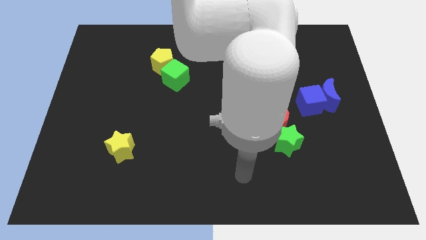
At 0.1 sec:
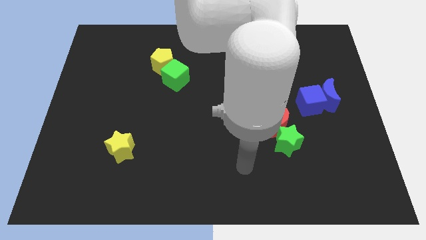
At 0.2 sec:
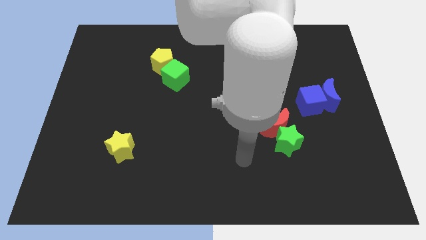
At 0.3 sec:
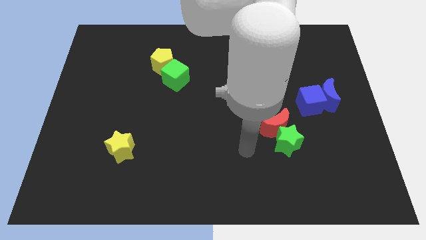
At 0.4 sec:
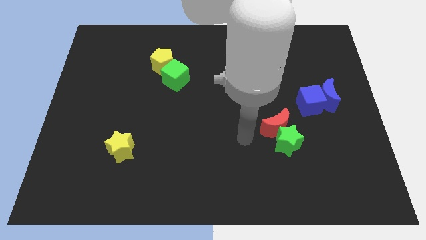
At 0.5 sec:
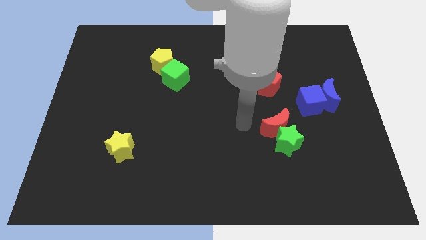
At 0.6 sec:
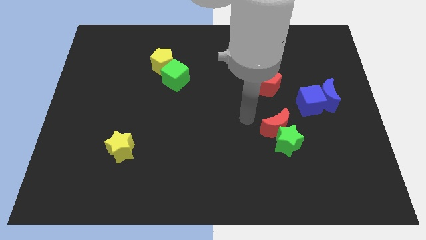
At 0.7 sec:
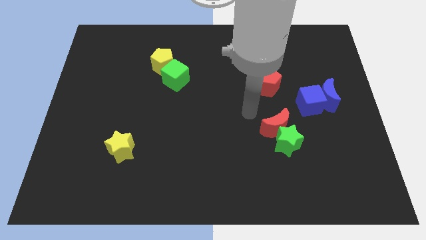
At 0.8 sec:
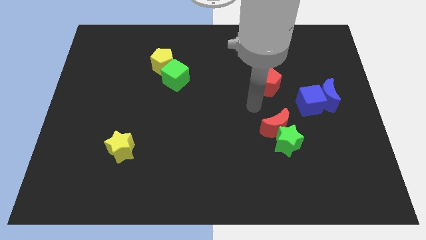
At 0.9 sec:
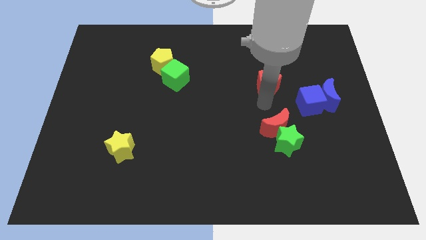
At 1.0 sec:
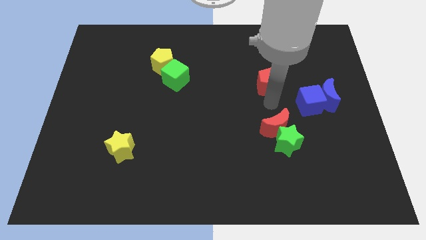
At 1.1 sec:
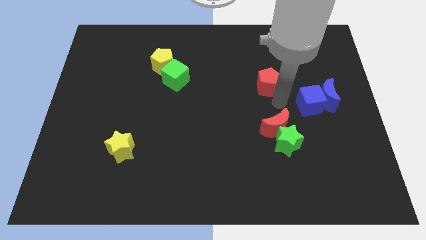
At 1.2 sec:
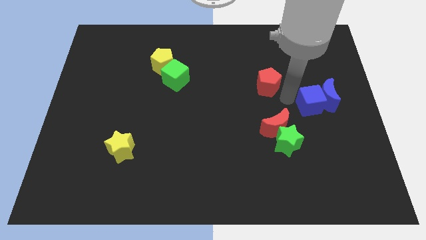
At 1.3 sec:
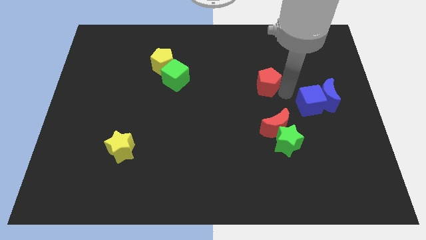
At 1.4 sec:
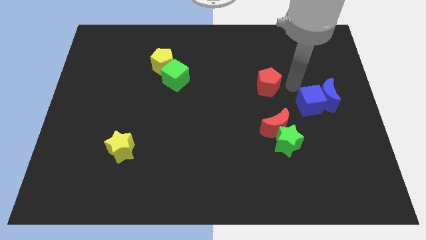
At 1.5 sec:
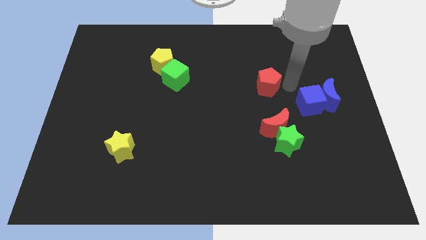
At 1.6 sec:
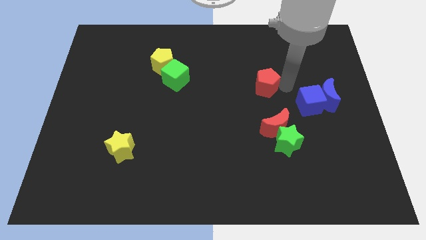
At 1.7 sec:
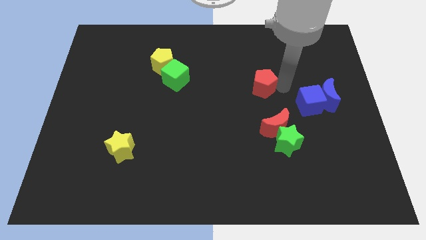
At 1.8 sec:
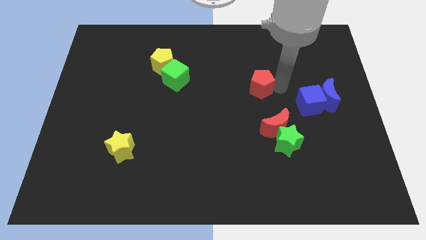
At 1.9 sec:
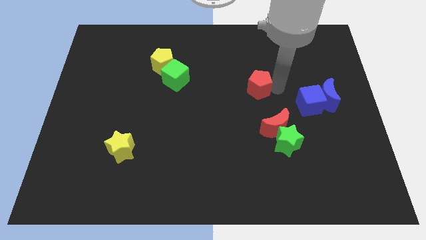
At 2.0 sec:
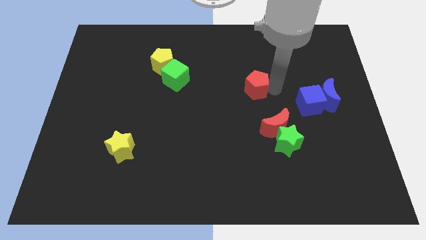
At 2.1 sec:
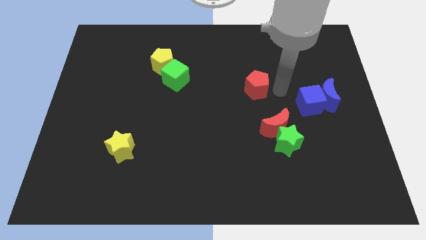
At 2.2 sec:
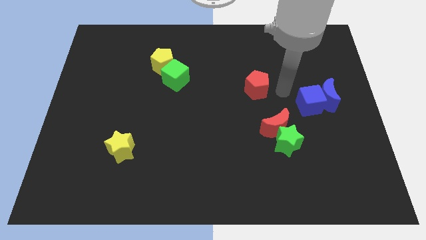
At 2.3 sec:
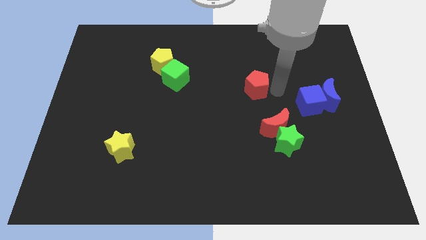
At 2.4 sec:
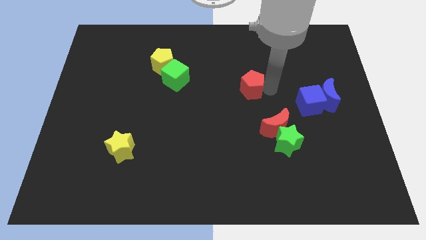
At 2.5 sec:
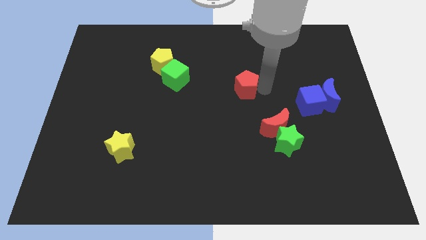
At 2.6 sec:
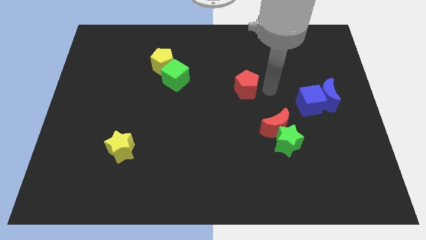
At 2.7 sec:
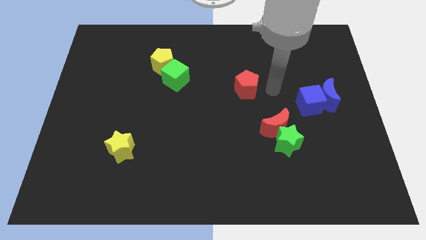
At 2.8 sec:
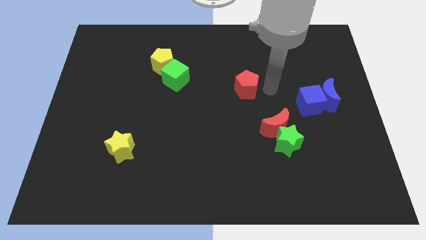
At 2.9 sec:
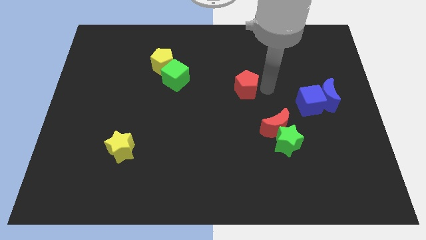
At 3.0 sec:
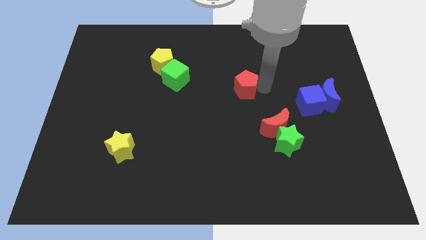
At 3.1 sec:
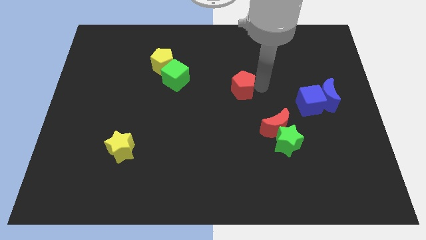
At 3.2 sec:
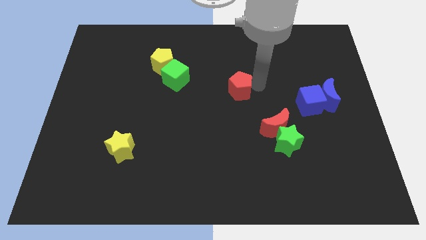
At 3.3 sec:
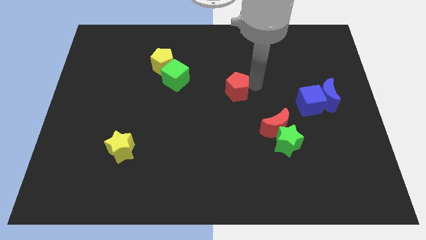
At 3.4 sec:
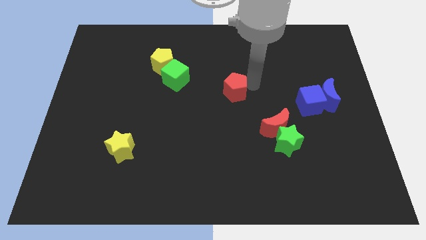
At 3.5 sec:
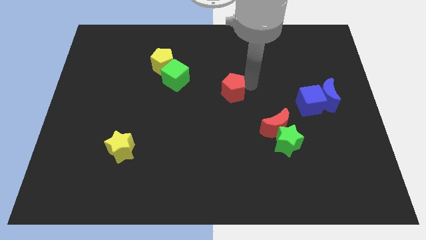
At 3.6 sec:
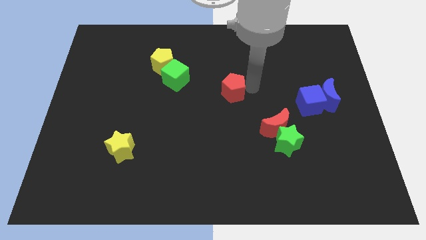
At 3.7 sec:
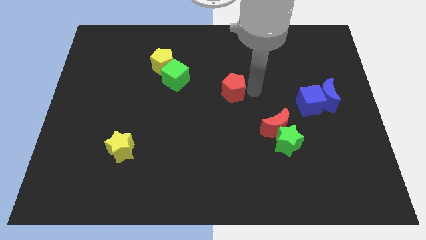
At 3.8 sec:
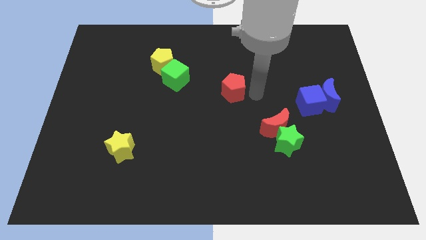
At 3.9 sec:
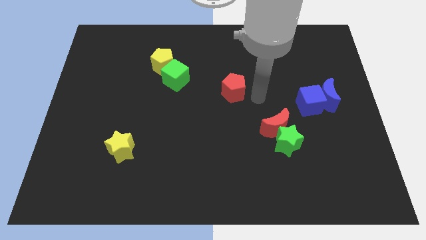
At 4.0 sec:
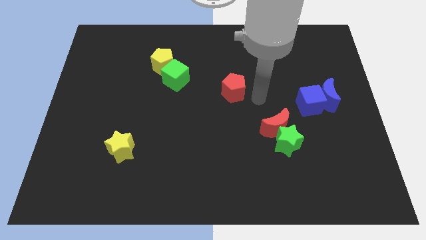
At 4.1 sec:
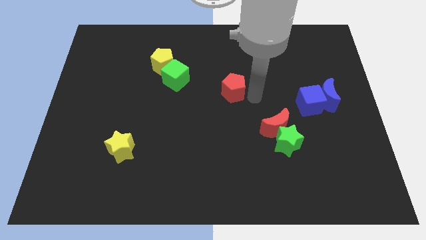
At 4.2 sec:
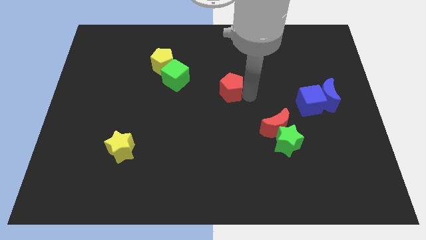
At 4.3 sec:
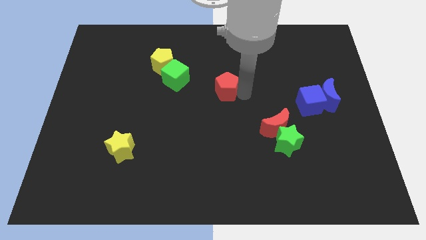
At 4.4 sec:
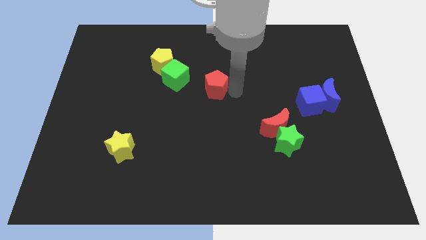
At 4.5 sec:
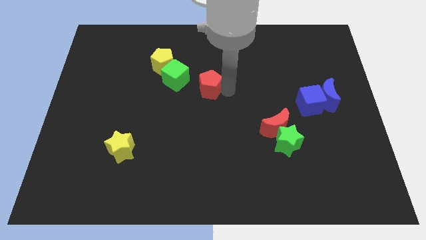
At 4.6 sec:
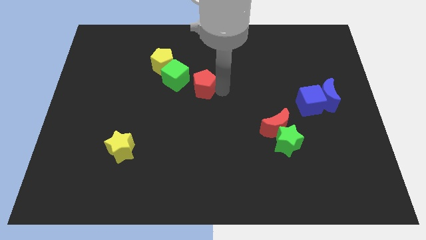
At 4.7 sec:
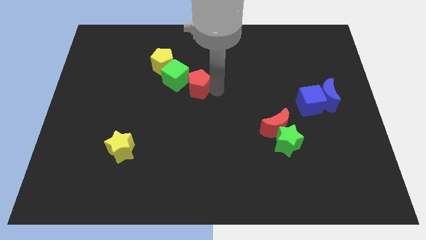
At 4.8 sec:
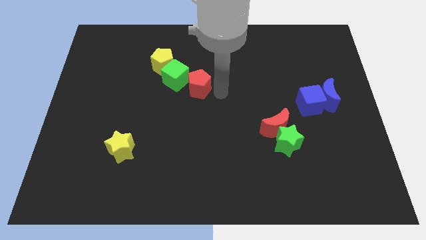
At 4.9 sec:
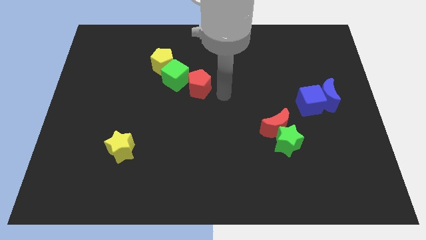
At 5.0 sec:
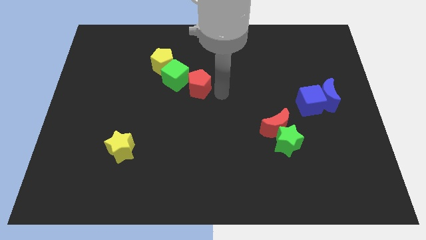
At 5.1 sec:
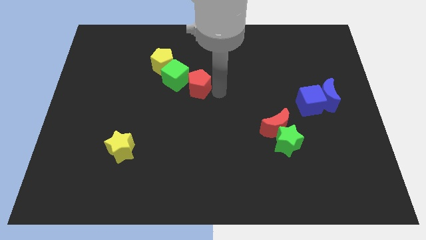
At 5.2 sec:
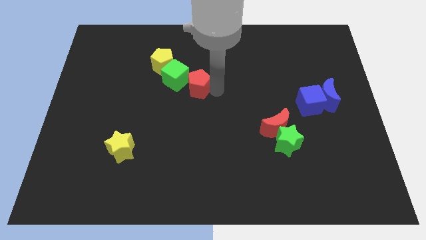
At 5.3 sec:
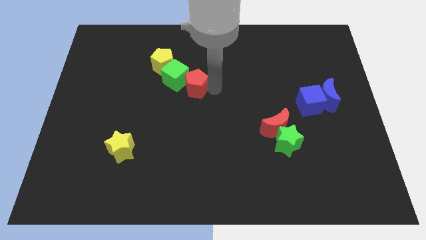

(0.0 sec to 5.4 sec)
push the red pentagon close to the green cube
